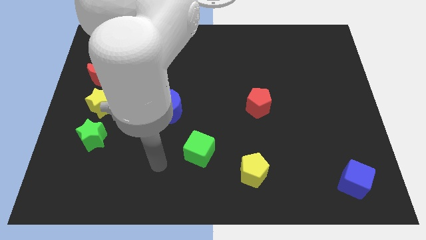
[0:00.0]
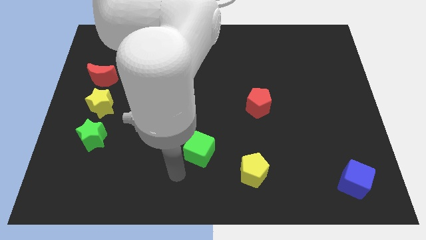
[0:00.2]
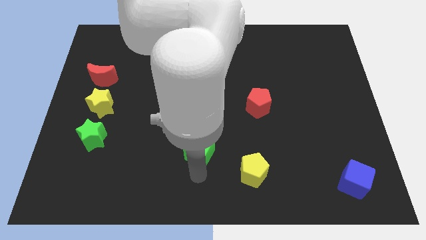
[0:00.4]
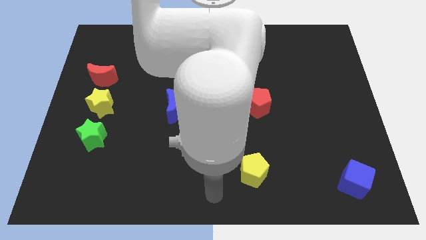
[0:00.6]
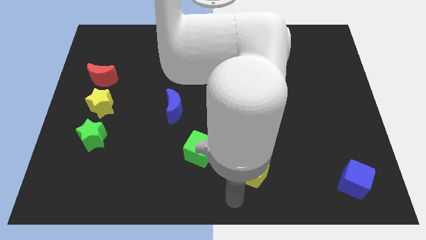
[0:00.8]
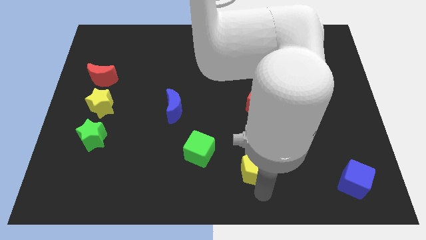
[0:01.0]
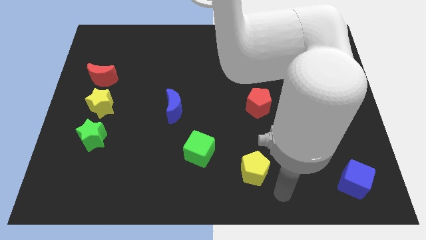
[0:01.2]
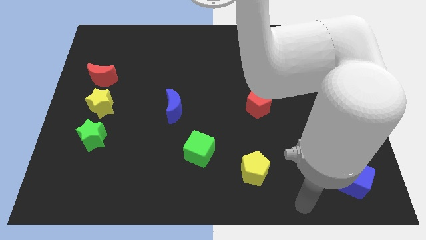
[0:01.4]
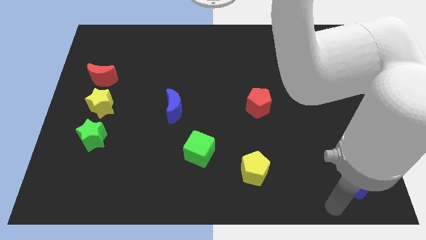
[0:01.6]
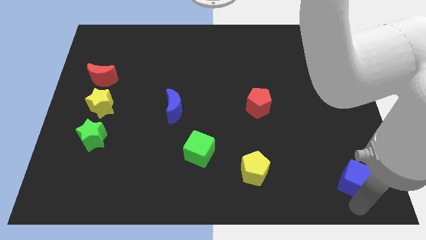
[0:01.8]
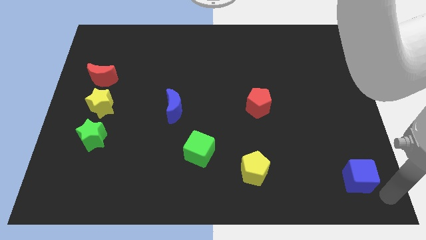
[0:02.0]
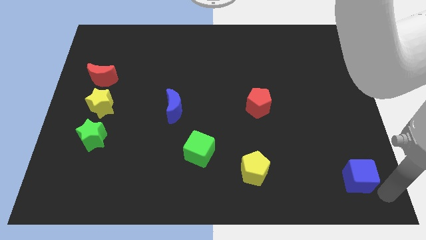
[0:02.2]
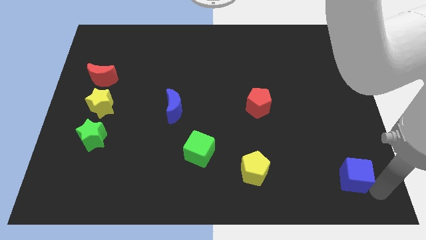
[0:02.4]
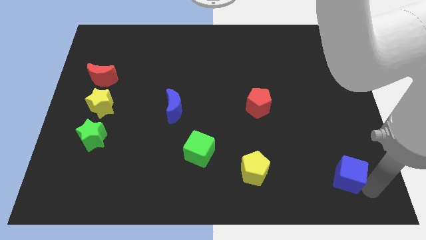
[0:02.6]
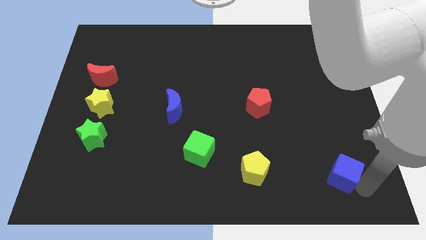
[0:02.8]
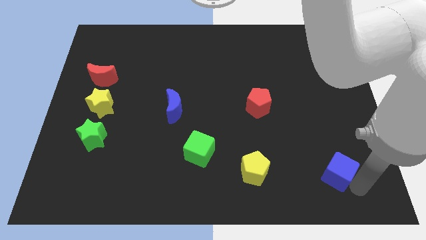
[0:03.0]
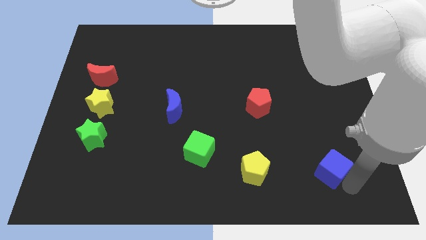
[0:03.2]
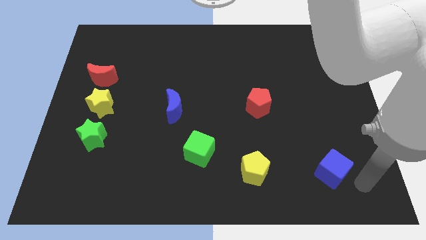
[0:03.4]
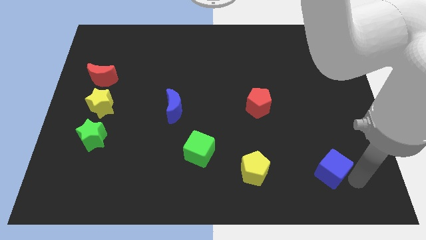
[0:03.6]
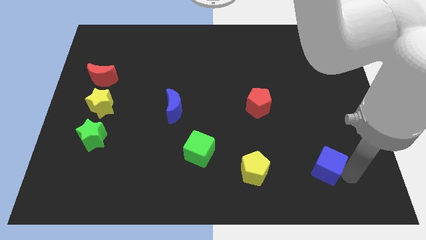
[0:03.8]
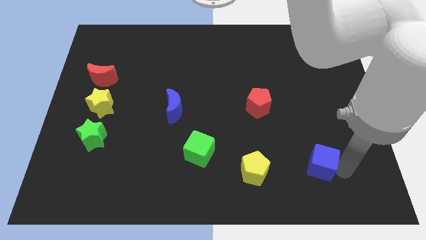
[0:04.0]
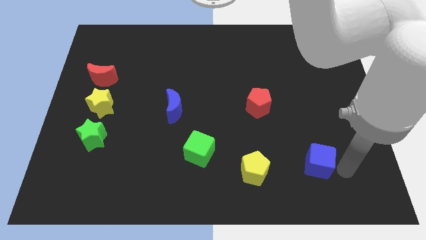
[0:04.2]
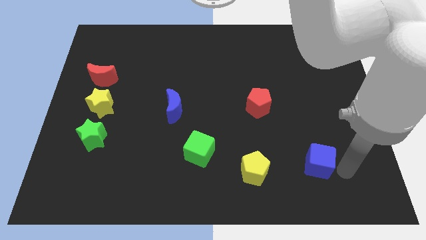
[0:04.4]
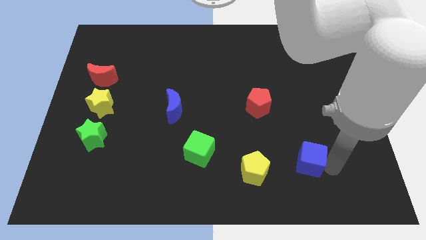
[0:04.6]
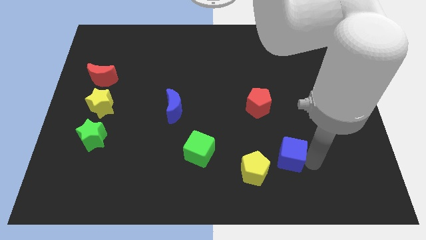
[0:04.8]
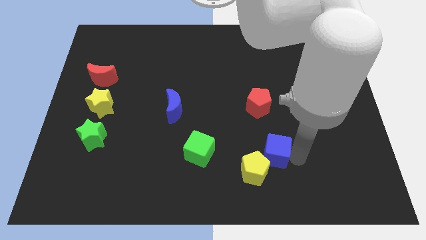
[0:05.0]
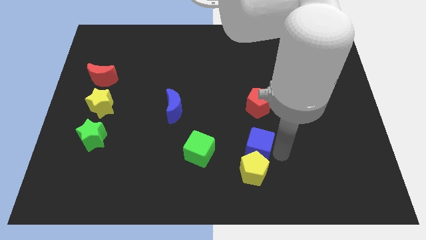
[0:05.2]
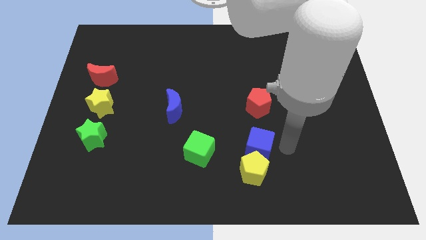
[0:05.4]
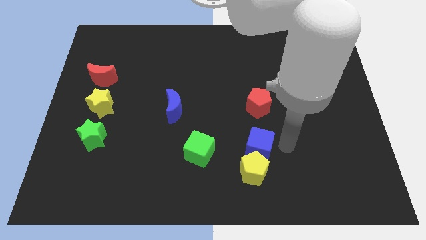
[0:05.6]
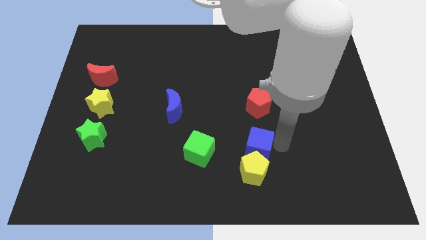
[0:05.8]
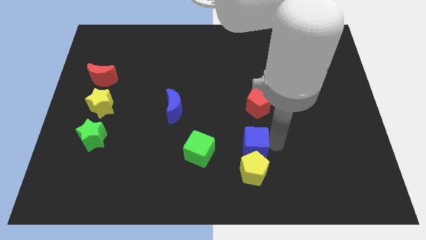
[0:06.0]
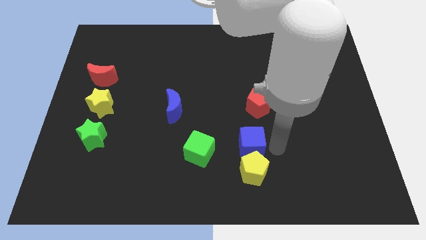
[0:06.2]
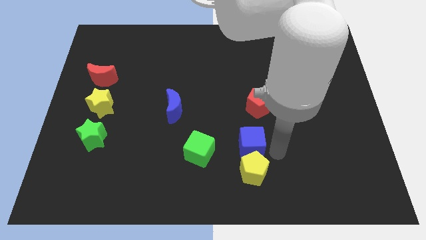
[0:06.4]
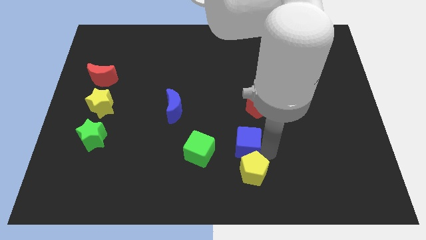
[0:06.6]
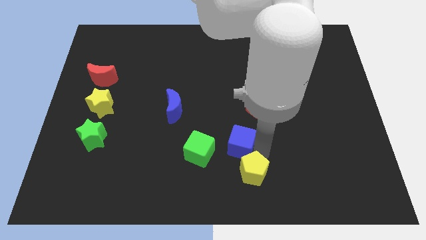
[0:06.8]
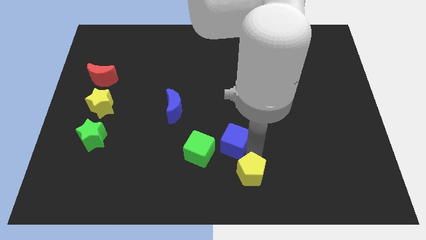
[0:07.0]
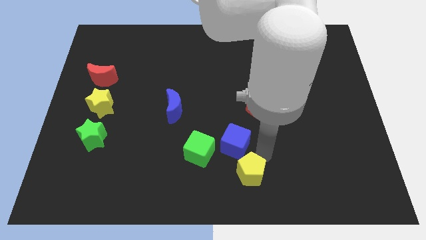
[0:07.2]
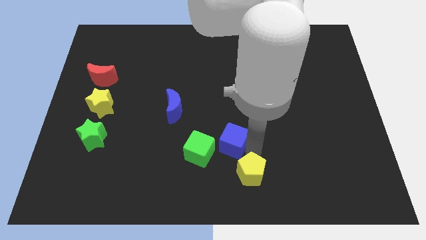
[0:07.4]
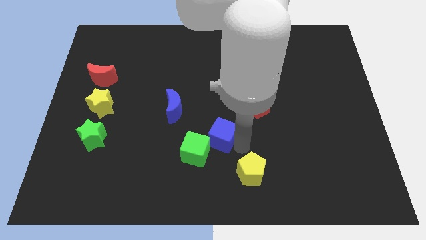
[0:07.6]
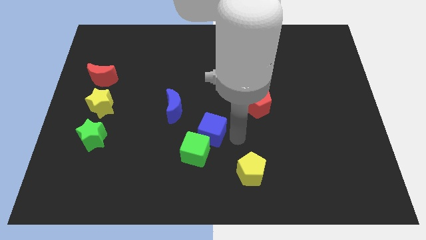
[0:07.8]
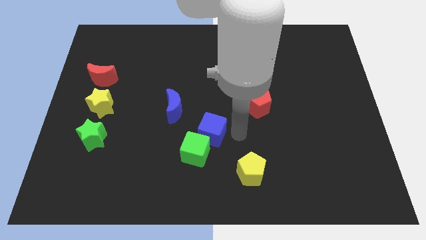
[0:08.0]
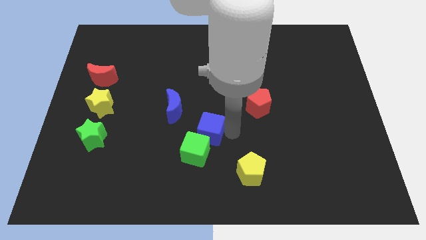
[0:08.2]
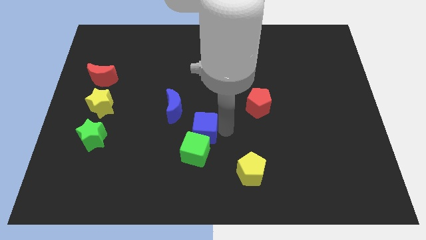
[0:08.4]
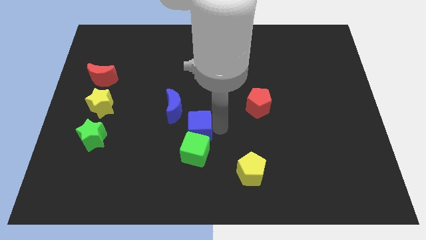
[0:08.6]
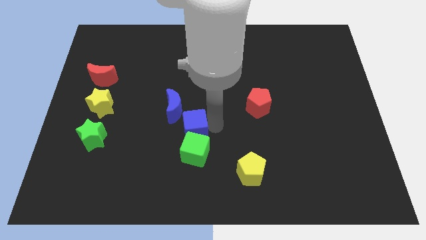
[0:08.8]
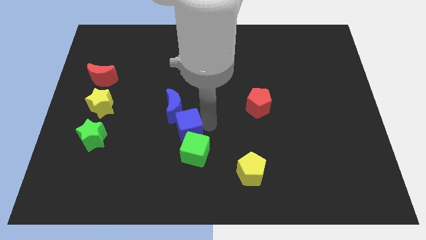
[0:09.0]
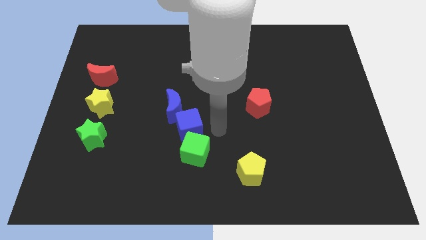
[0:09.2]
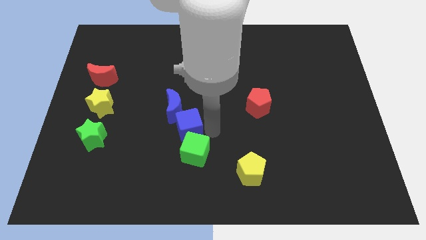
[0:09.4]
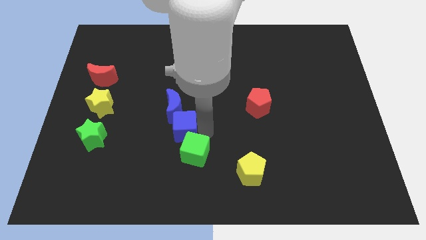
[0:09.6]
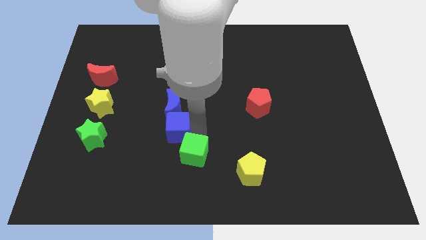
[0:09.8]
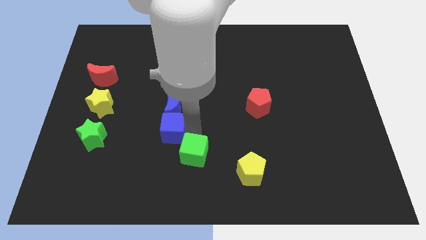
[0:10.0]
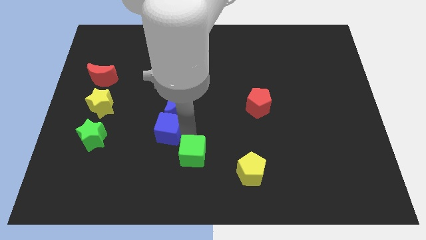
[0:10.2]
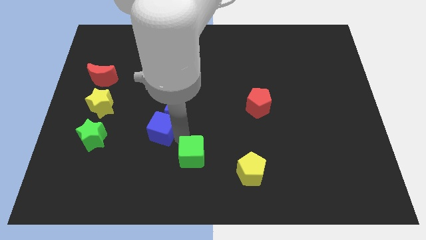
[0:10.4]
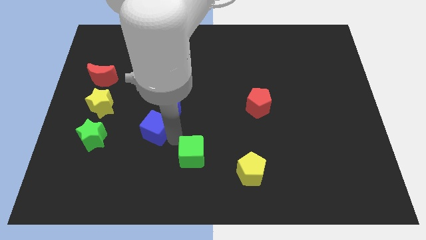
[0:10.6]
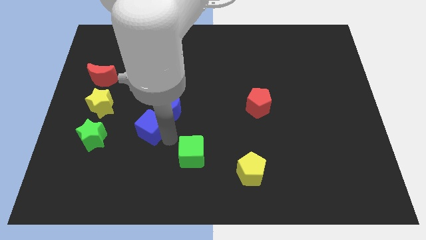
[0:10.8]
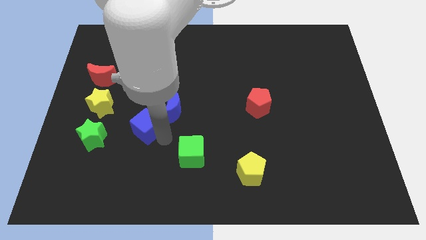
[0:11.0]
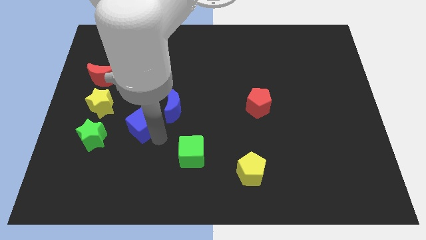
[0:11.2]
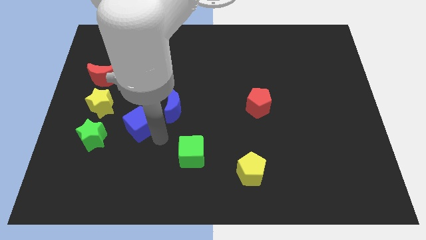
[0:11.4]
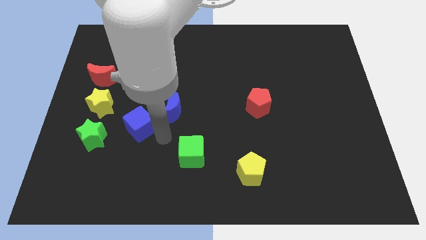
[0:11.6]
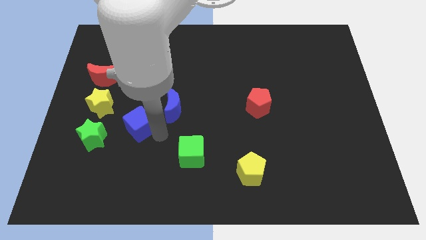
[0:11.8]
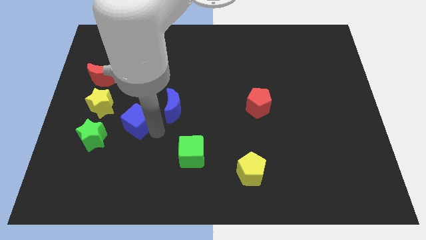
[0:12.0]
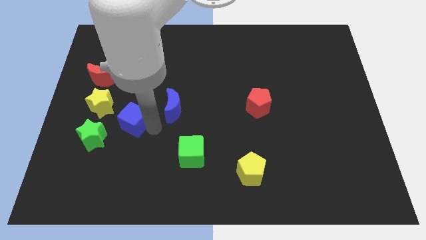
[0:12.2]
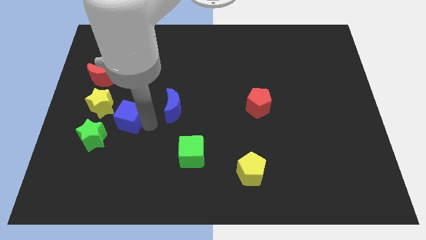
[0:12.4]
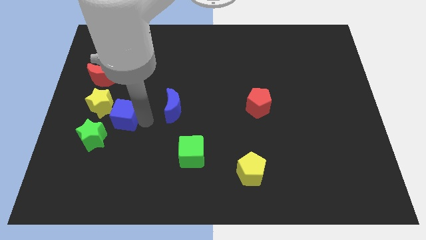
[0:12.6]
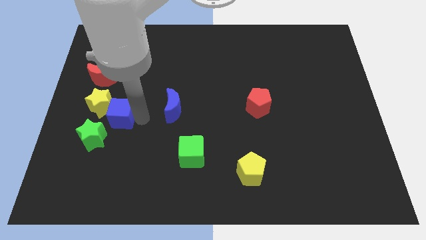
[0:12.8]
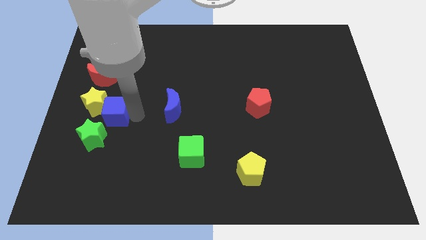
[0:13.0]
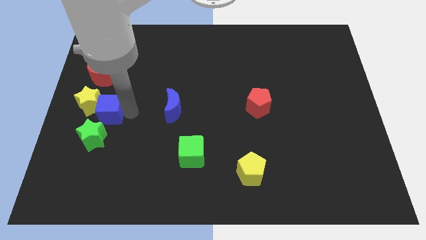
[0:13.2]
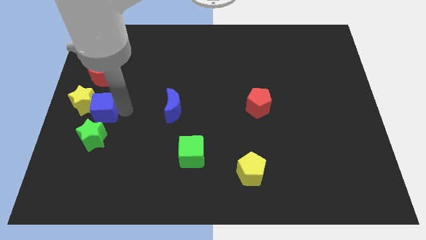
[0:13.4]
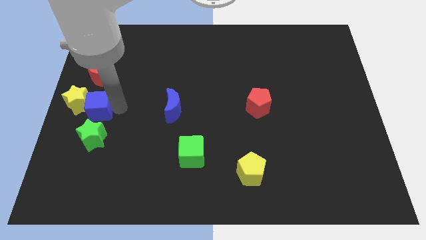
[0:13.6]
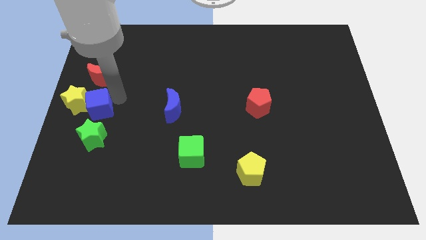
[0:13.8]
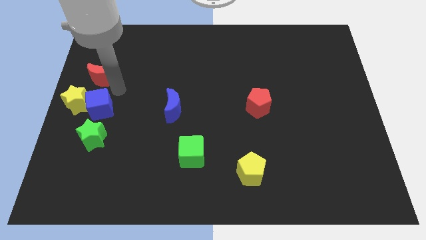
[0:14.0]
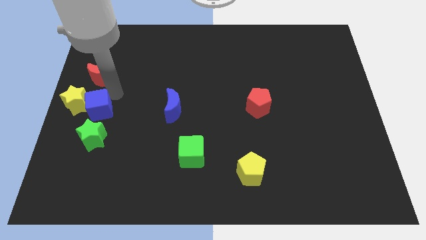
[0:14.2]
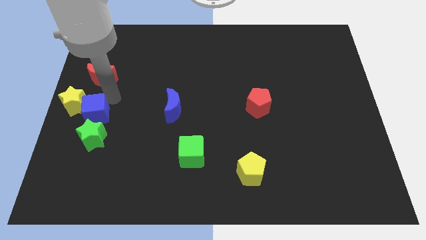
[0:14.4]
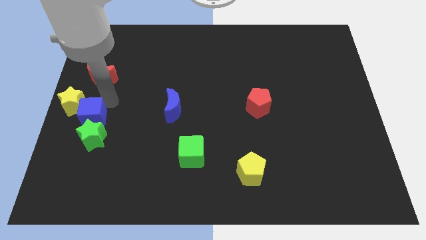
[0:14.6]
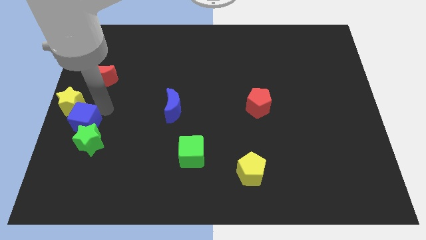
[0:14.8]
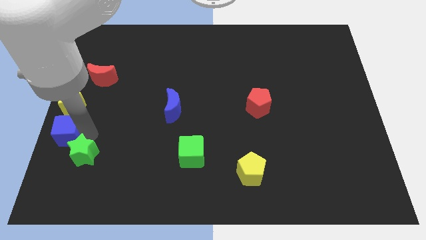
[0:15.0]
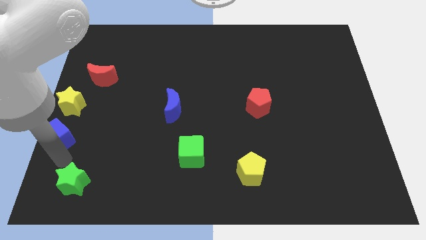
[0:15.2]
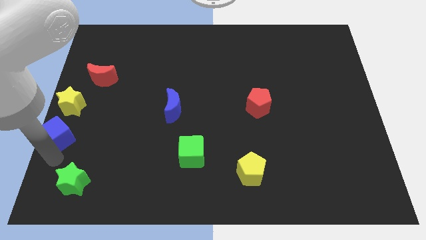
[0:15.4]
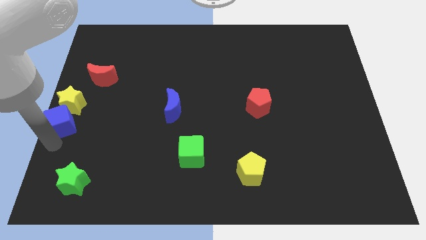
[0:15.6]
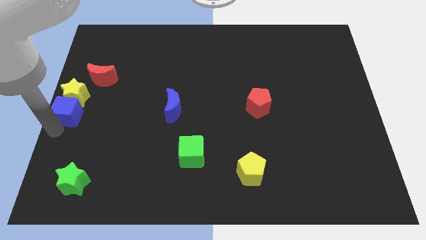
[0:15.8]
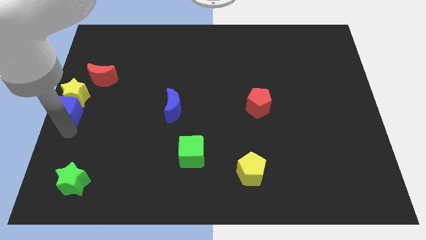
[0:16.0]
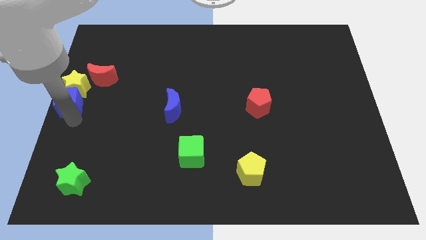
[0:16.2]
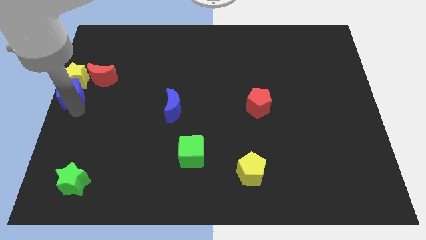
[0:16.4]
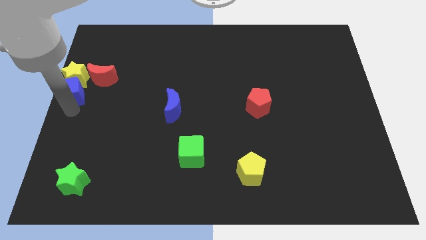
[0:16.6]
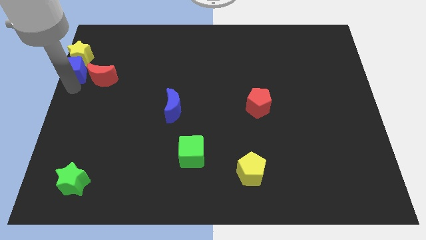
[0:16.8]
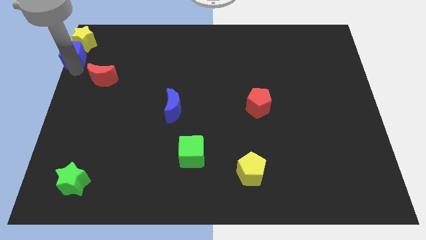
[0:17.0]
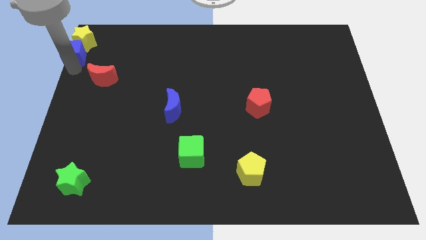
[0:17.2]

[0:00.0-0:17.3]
slide the blue cube to the upper left corner
